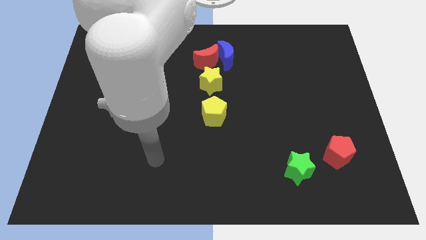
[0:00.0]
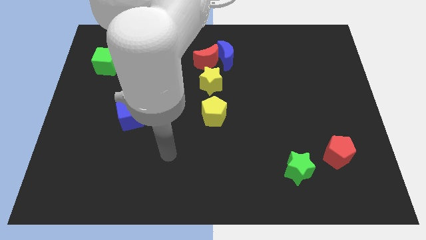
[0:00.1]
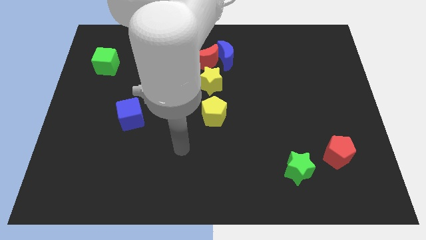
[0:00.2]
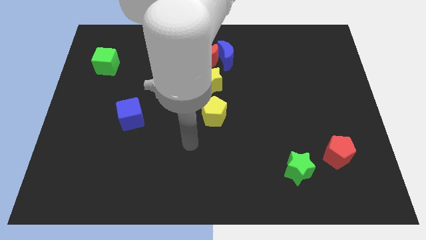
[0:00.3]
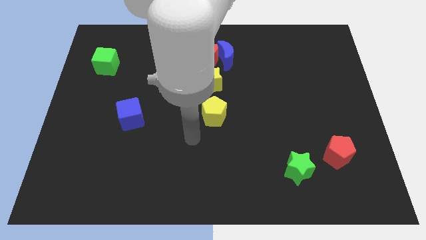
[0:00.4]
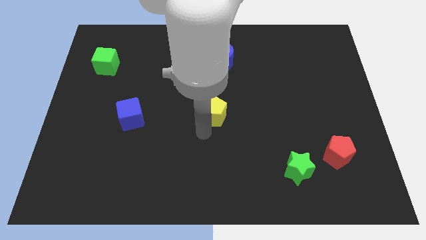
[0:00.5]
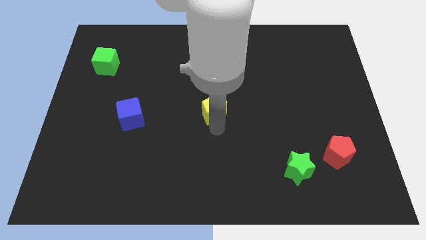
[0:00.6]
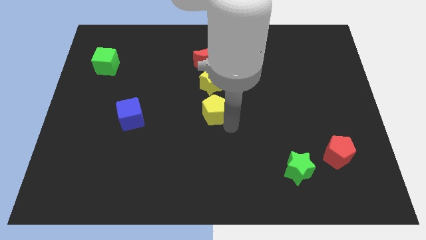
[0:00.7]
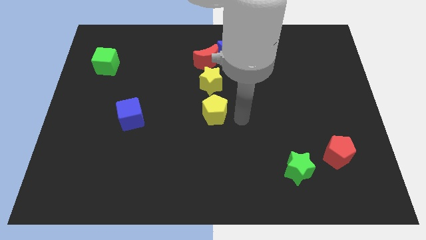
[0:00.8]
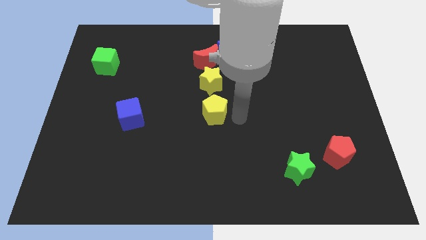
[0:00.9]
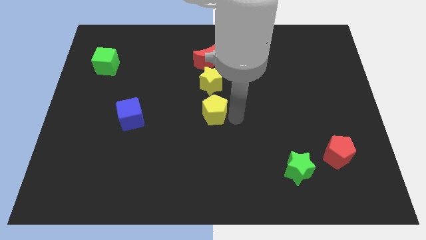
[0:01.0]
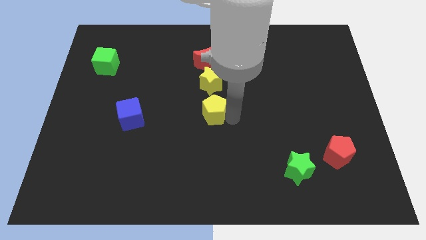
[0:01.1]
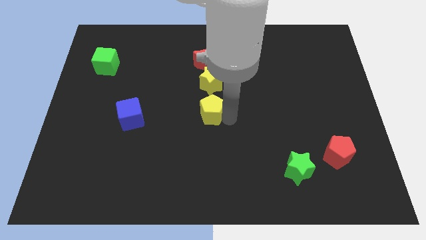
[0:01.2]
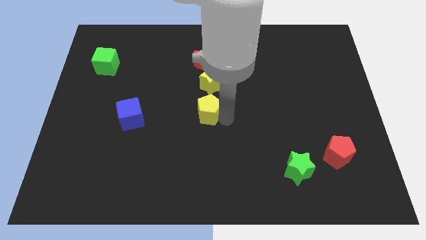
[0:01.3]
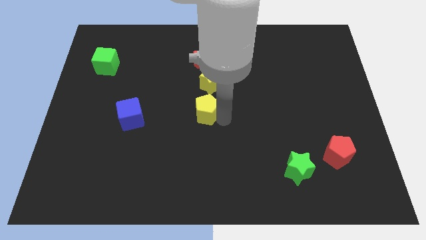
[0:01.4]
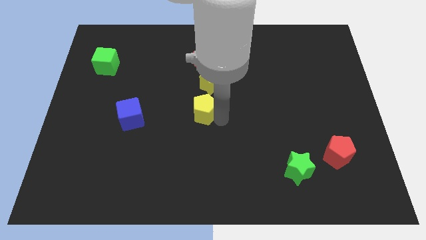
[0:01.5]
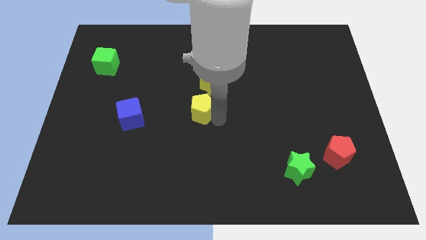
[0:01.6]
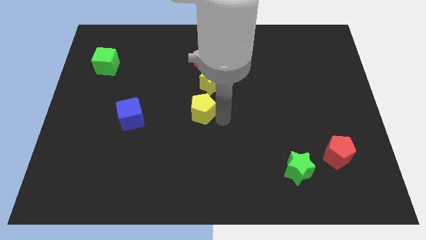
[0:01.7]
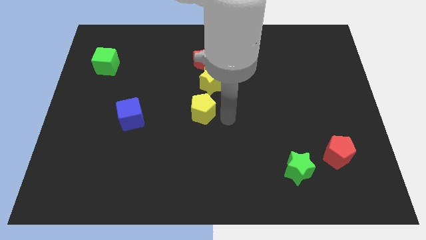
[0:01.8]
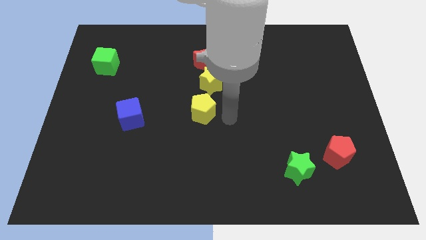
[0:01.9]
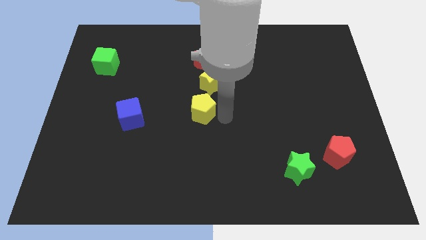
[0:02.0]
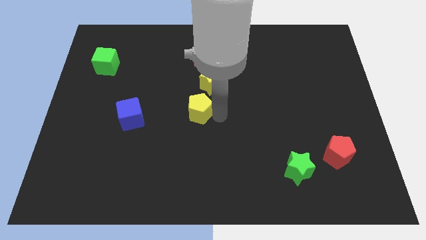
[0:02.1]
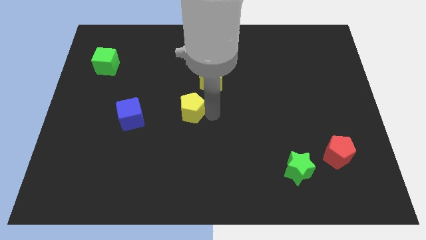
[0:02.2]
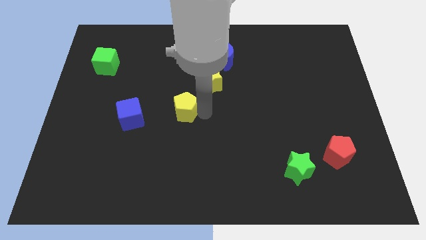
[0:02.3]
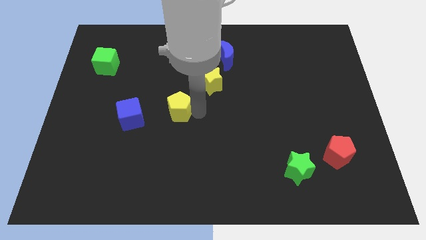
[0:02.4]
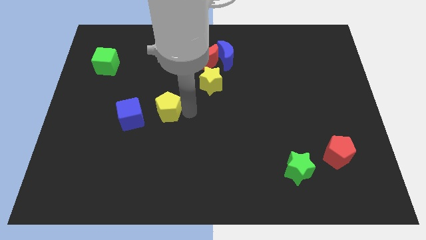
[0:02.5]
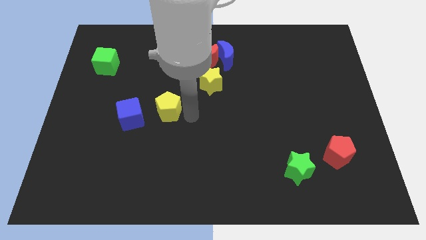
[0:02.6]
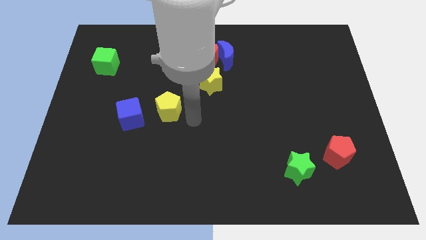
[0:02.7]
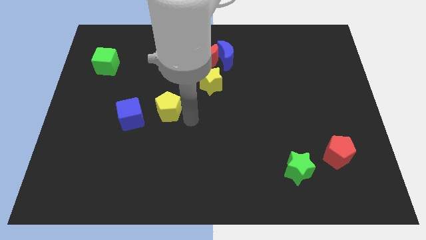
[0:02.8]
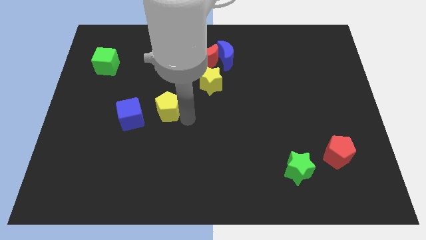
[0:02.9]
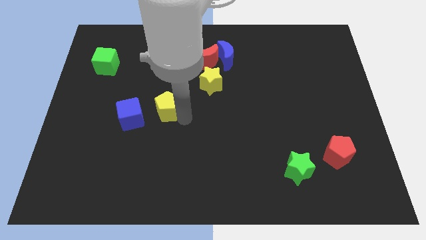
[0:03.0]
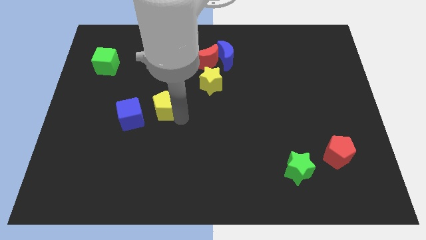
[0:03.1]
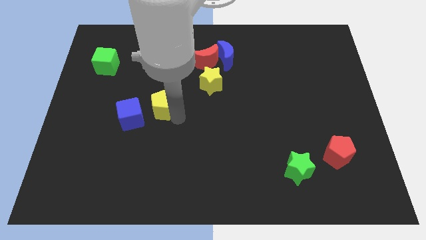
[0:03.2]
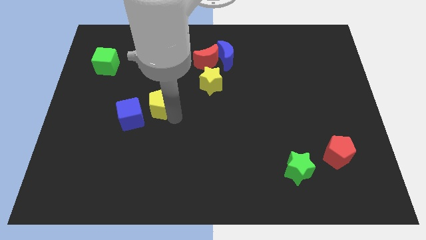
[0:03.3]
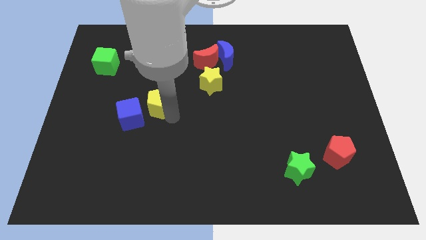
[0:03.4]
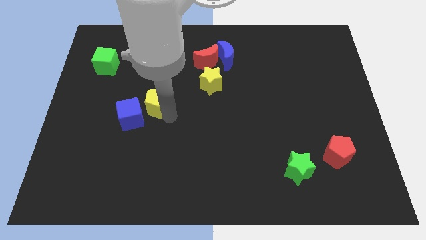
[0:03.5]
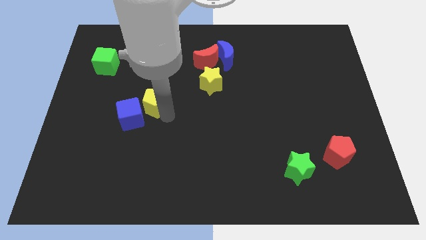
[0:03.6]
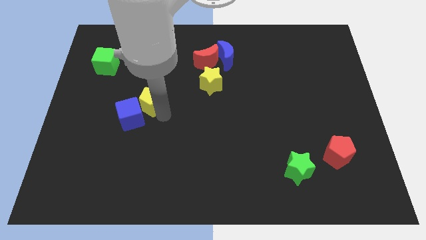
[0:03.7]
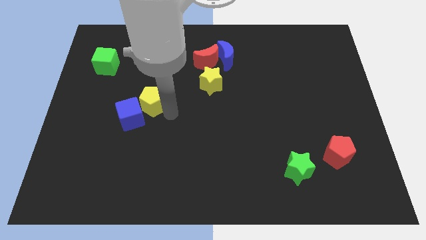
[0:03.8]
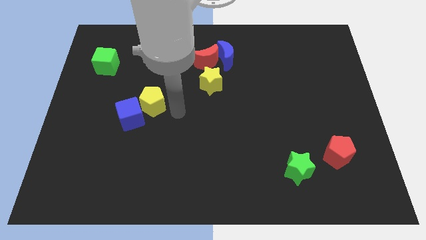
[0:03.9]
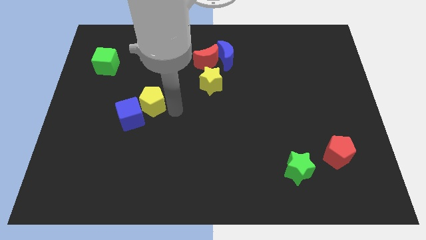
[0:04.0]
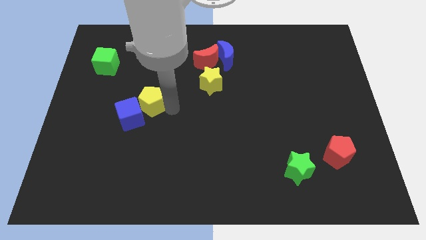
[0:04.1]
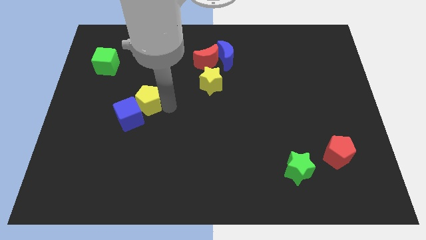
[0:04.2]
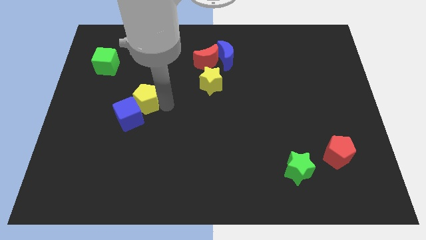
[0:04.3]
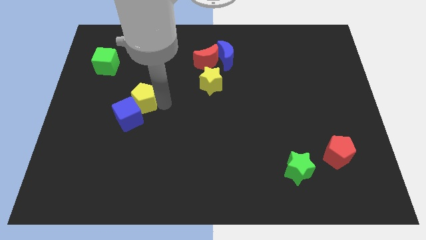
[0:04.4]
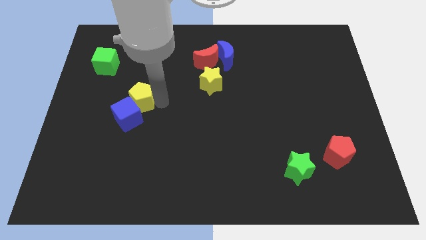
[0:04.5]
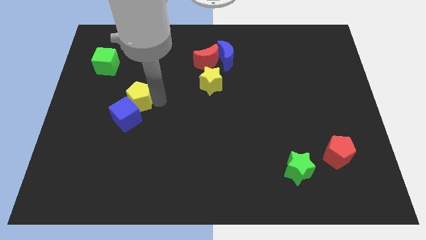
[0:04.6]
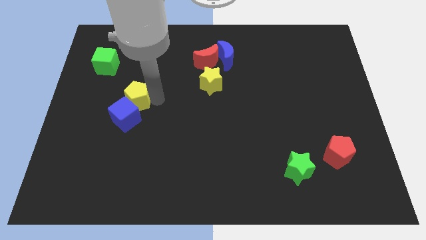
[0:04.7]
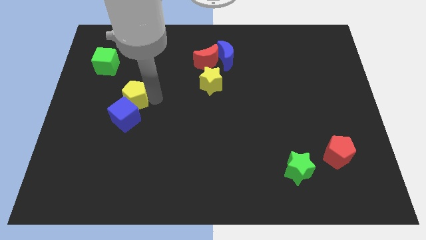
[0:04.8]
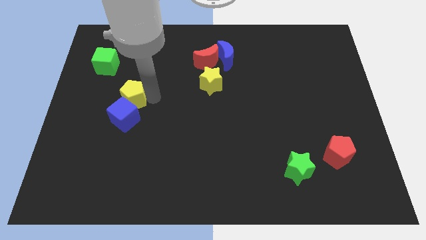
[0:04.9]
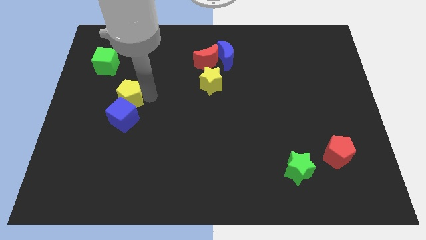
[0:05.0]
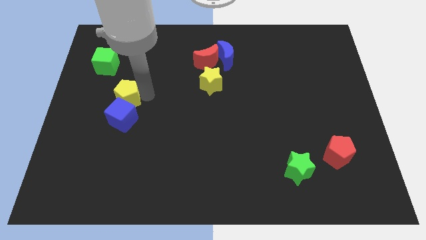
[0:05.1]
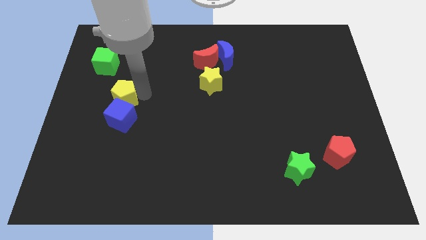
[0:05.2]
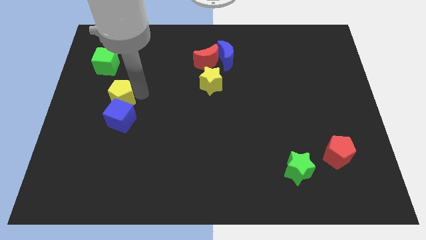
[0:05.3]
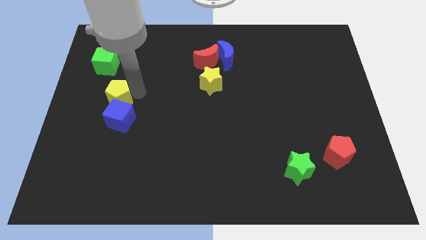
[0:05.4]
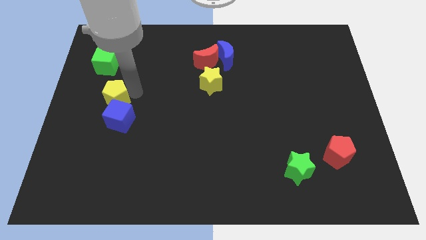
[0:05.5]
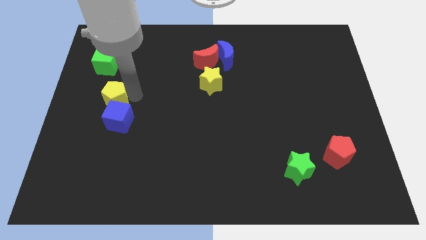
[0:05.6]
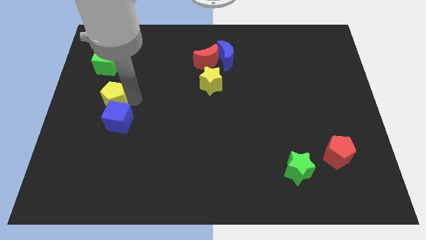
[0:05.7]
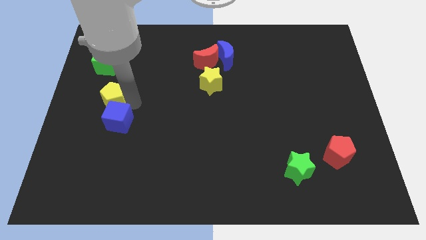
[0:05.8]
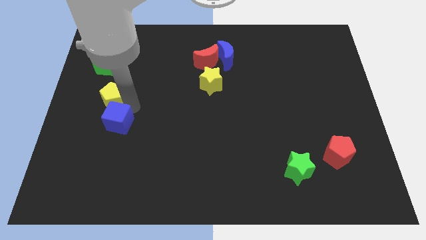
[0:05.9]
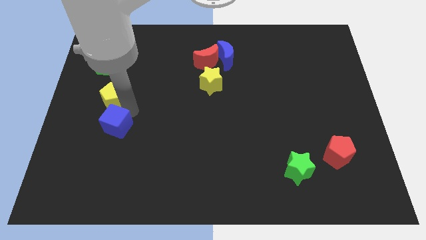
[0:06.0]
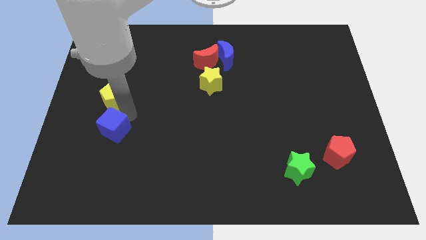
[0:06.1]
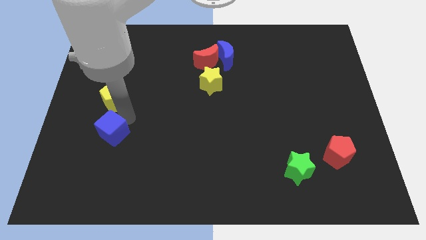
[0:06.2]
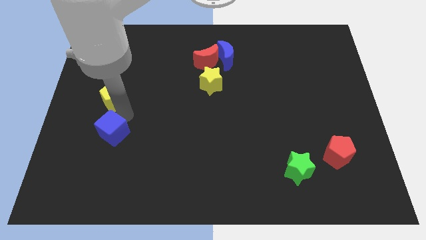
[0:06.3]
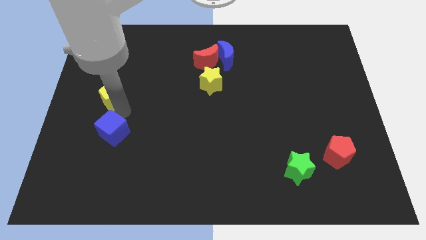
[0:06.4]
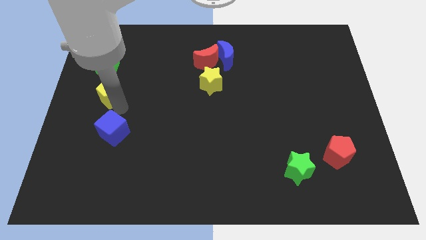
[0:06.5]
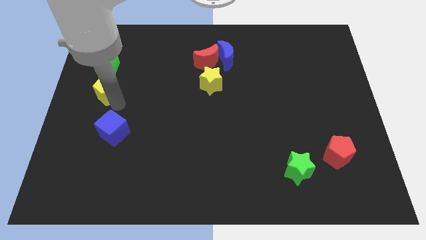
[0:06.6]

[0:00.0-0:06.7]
move the yellow pentagon to the left side of the board

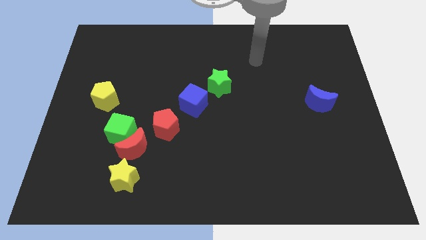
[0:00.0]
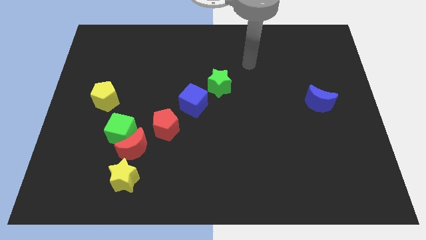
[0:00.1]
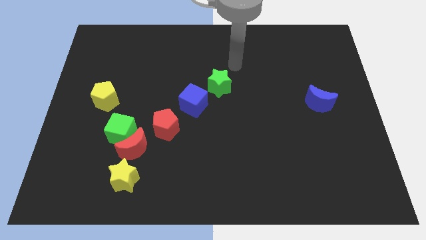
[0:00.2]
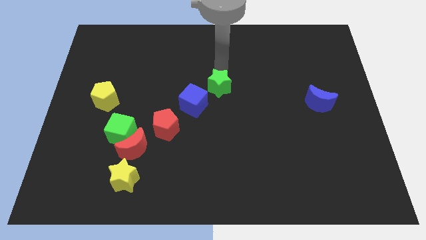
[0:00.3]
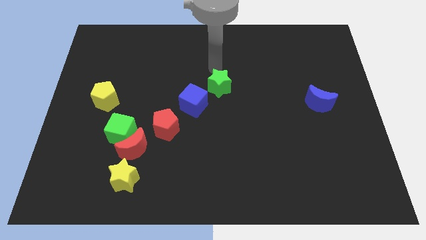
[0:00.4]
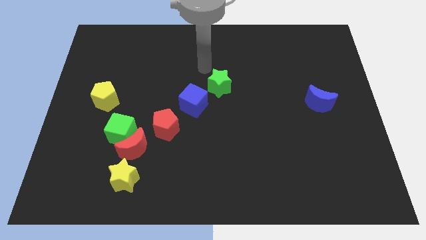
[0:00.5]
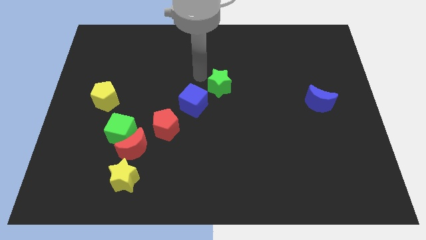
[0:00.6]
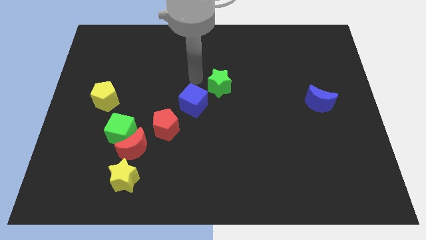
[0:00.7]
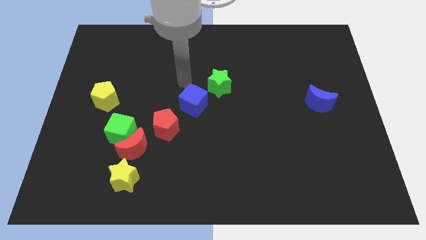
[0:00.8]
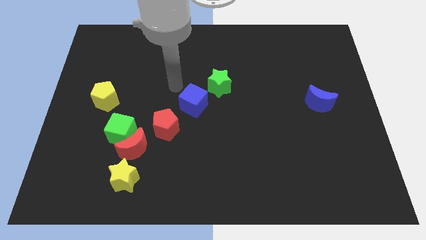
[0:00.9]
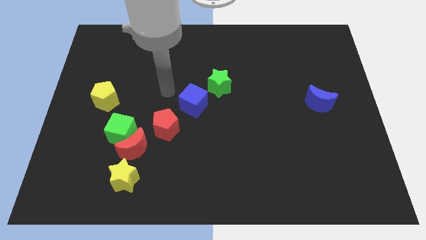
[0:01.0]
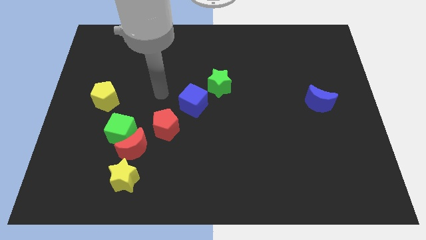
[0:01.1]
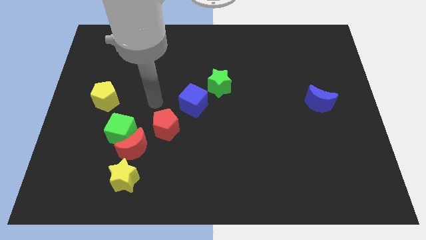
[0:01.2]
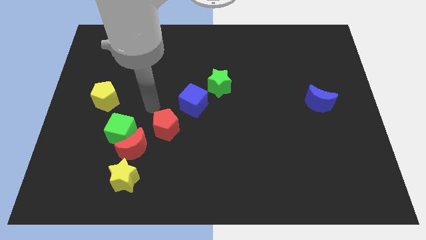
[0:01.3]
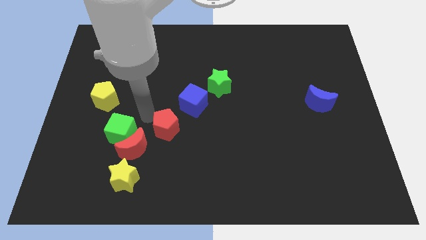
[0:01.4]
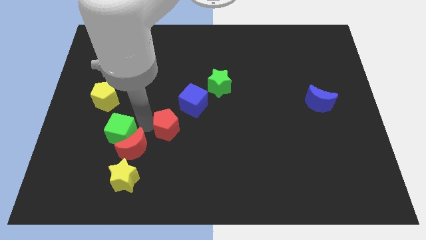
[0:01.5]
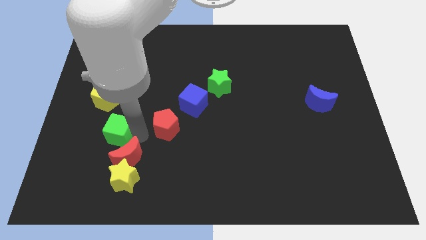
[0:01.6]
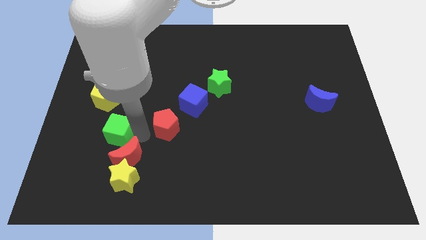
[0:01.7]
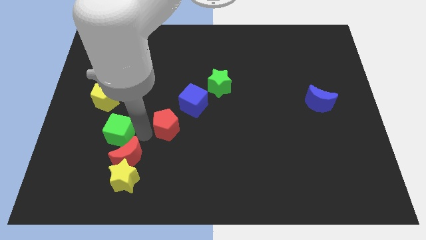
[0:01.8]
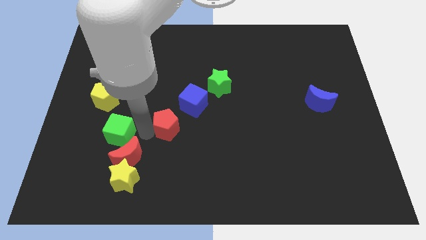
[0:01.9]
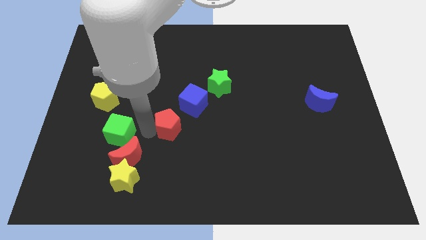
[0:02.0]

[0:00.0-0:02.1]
slide the red pentagon to the middle
